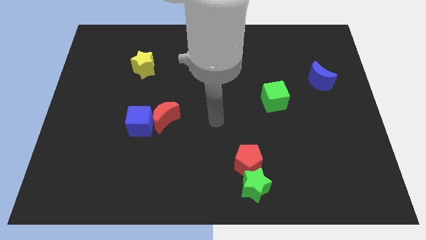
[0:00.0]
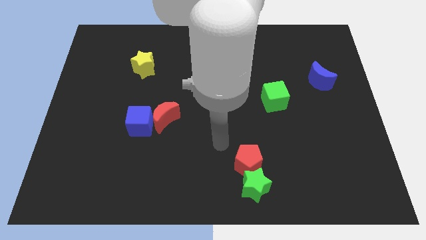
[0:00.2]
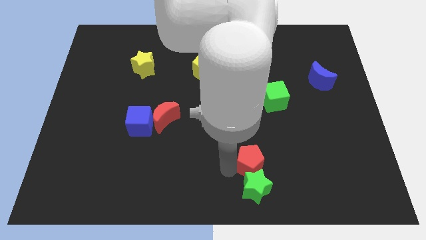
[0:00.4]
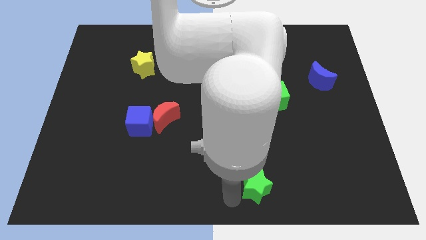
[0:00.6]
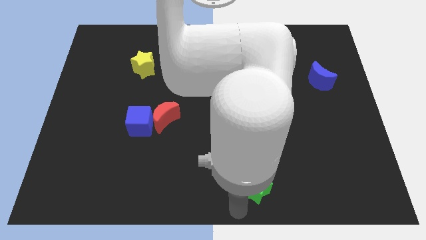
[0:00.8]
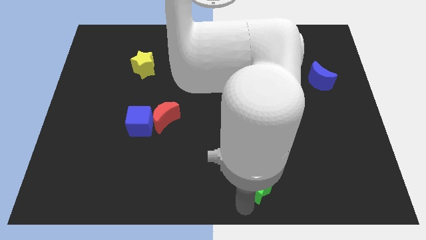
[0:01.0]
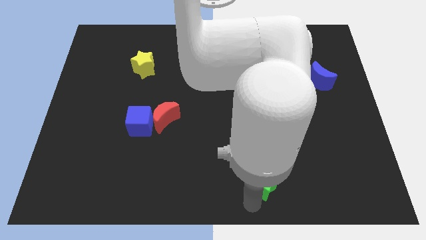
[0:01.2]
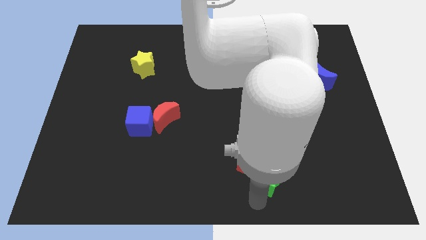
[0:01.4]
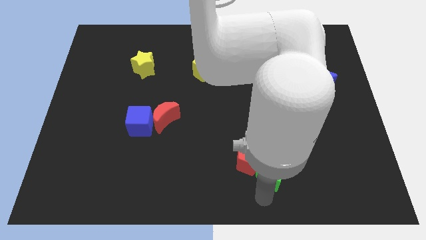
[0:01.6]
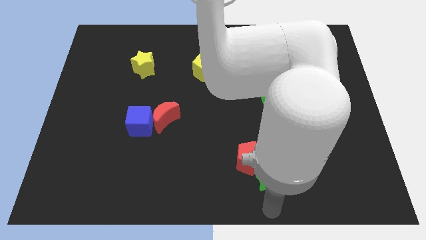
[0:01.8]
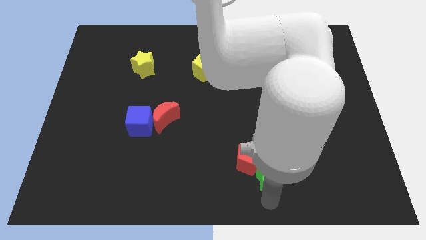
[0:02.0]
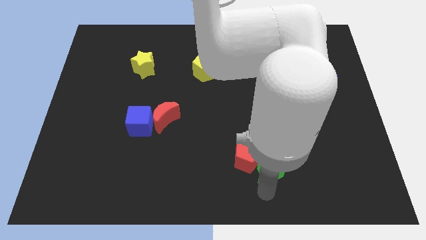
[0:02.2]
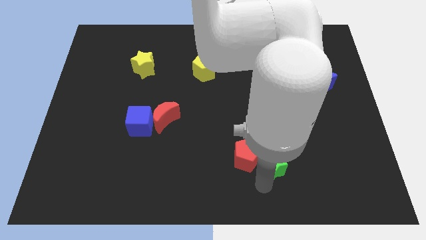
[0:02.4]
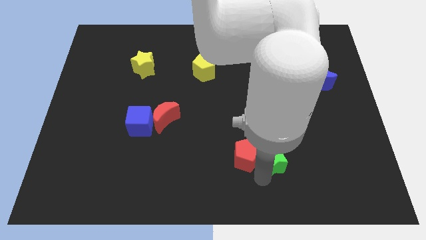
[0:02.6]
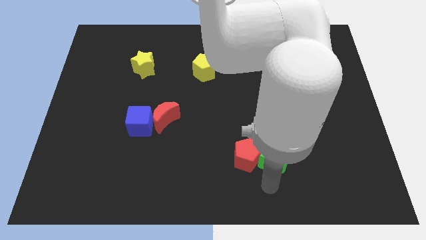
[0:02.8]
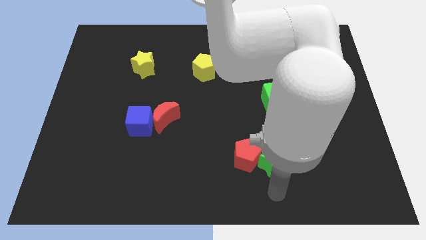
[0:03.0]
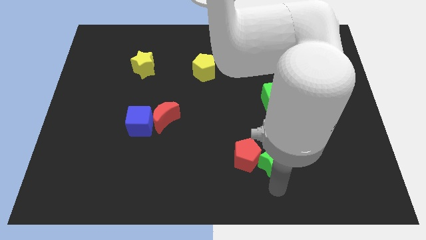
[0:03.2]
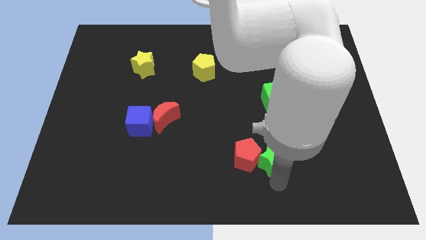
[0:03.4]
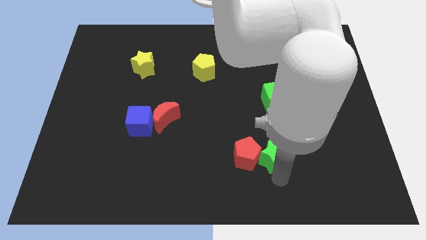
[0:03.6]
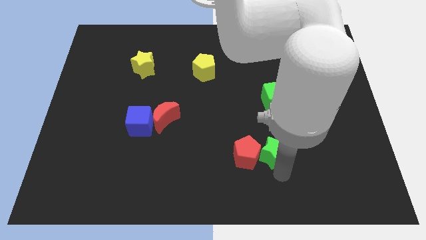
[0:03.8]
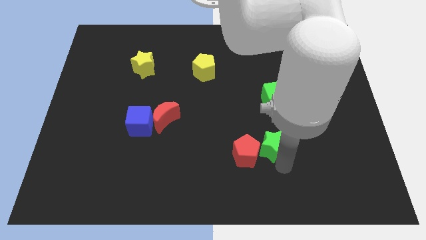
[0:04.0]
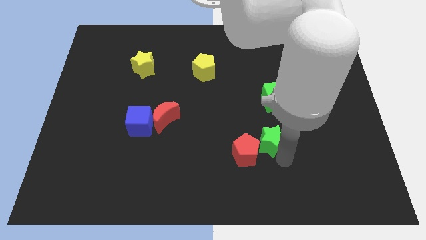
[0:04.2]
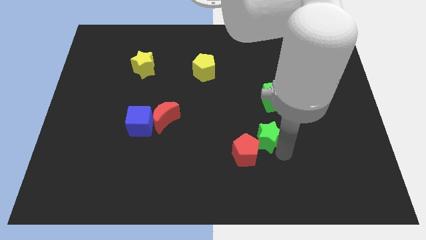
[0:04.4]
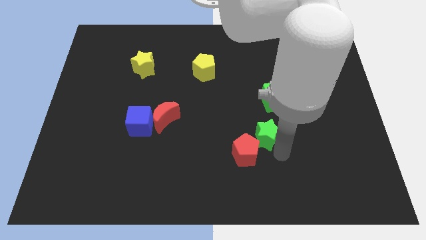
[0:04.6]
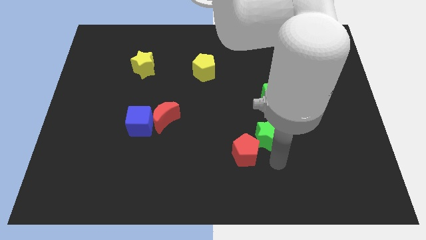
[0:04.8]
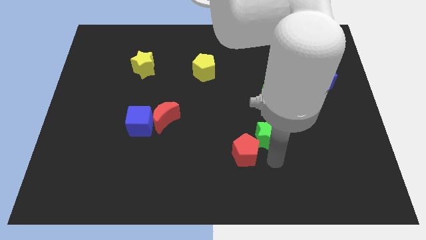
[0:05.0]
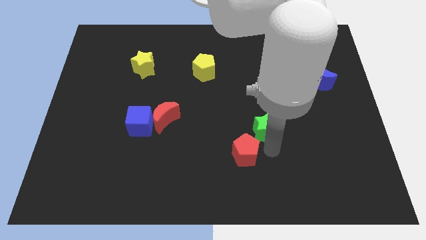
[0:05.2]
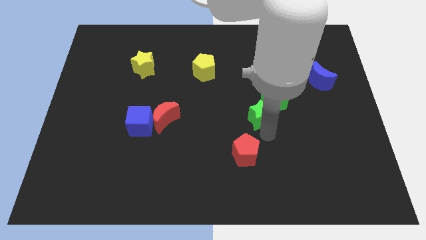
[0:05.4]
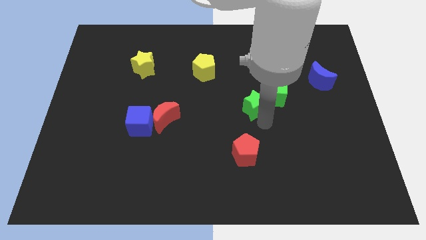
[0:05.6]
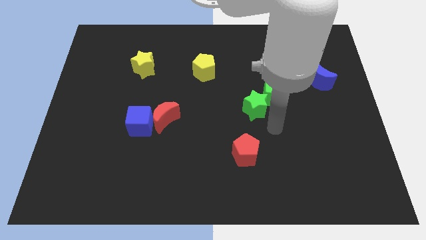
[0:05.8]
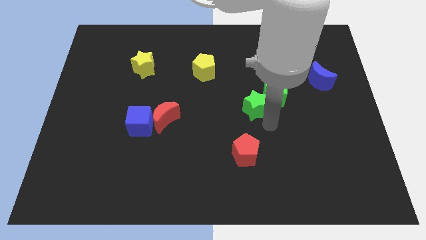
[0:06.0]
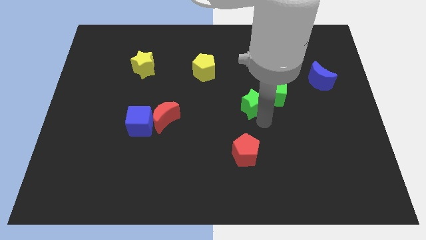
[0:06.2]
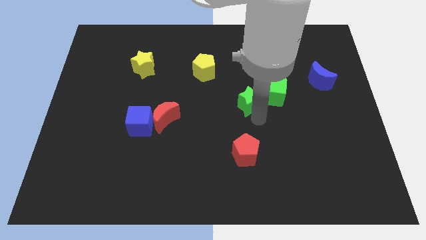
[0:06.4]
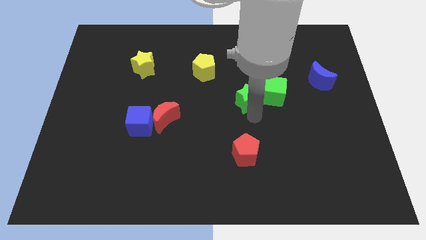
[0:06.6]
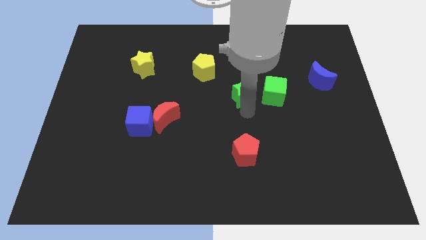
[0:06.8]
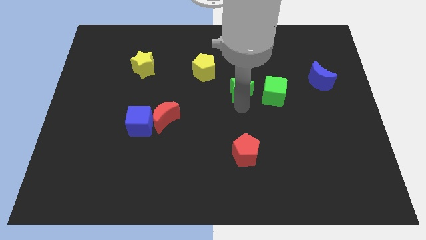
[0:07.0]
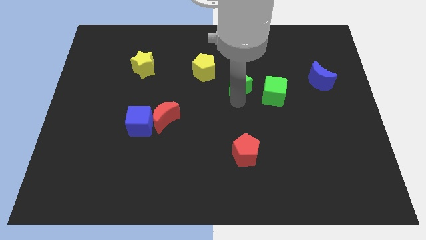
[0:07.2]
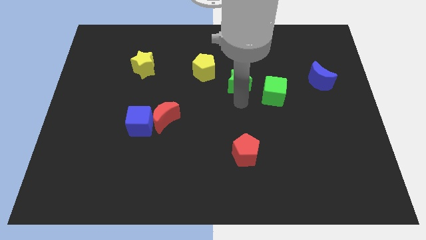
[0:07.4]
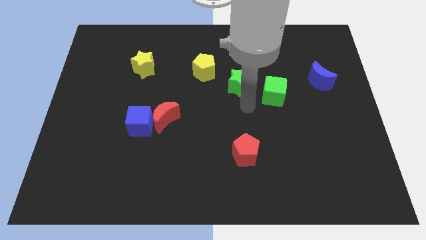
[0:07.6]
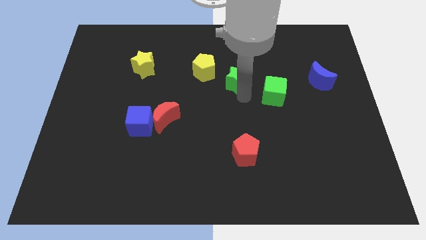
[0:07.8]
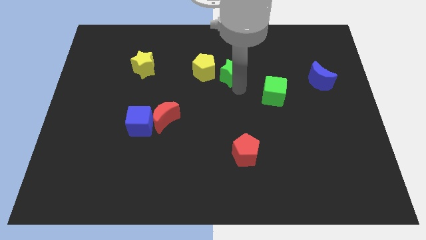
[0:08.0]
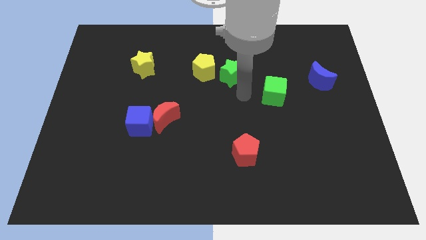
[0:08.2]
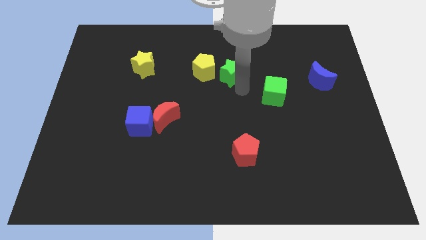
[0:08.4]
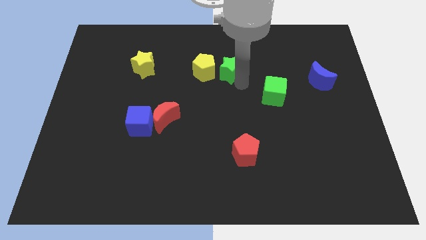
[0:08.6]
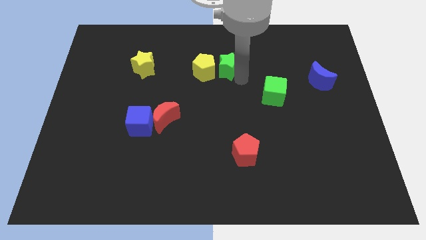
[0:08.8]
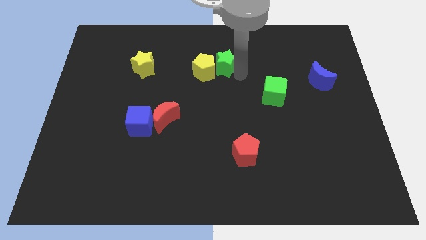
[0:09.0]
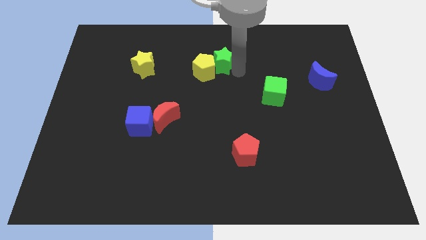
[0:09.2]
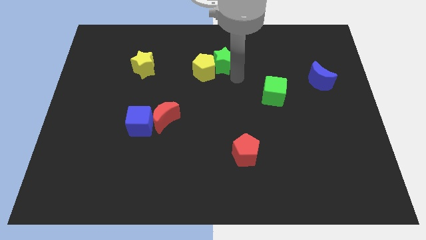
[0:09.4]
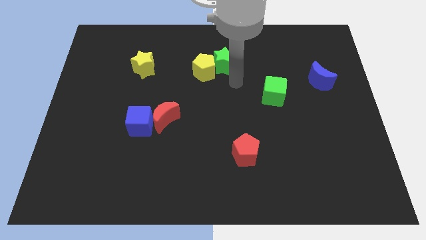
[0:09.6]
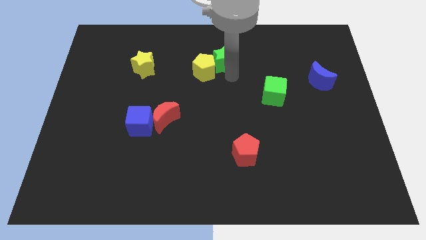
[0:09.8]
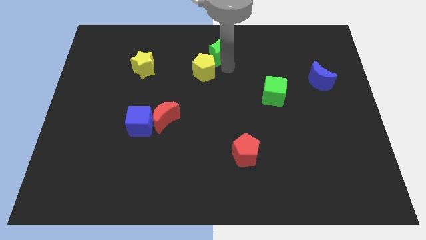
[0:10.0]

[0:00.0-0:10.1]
put the green star to the towards your base

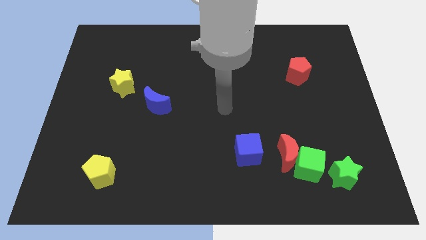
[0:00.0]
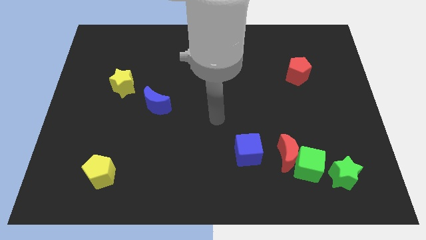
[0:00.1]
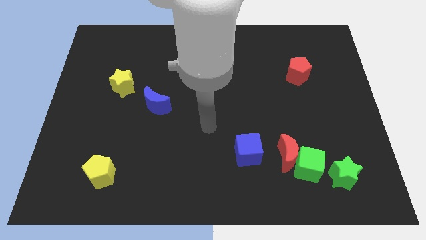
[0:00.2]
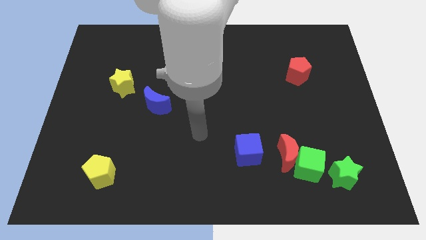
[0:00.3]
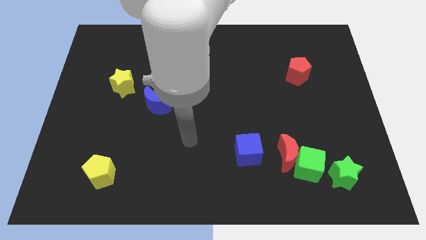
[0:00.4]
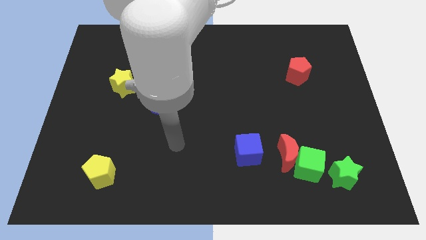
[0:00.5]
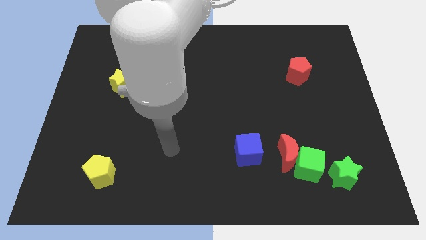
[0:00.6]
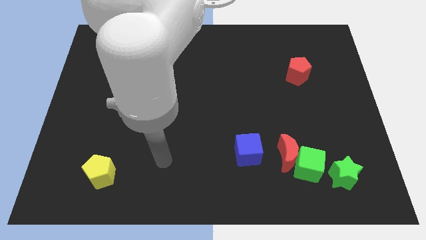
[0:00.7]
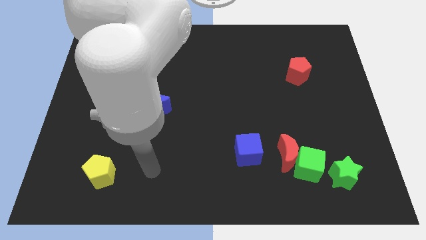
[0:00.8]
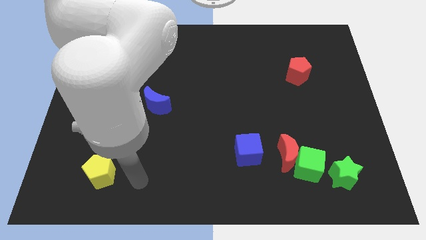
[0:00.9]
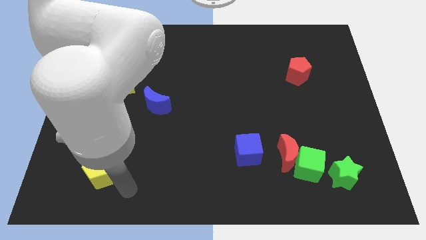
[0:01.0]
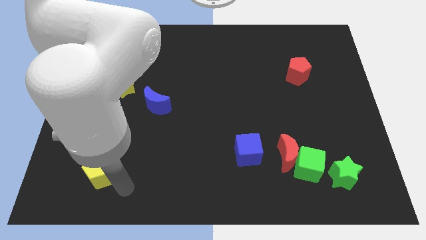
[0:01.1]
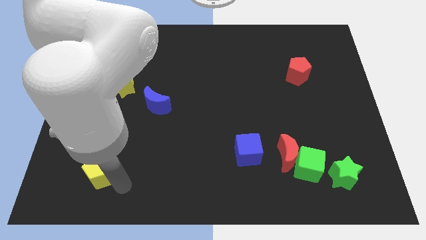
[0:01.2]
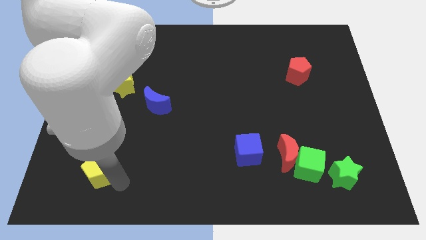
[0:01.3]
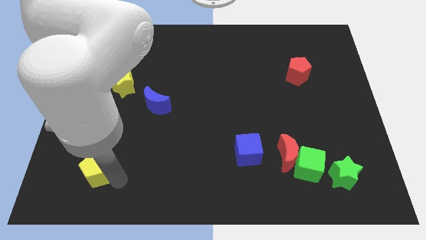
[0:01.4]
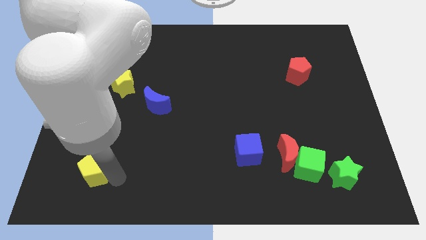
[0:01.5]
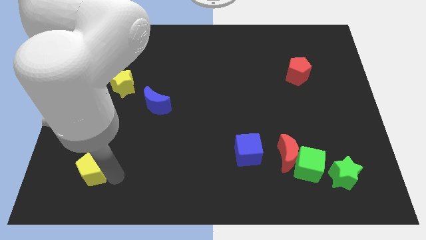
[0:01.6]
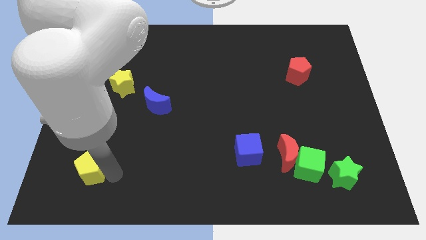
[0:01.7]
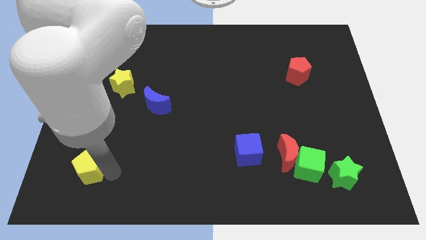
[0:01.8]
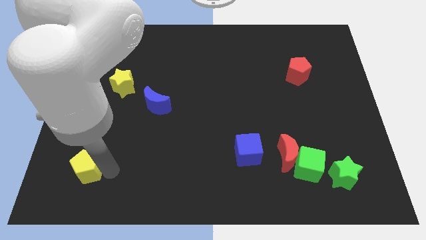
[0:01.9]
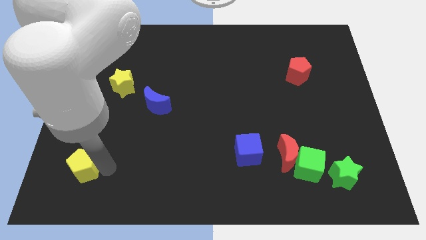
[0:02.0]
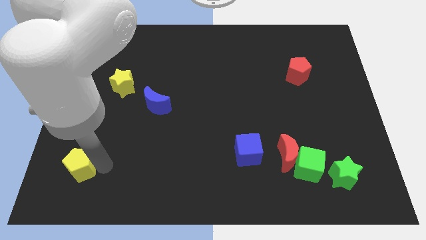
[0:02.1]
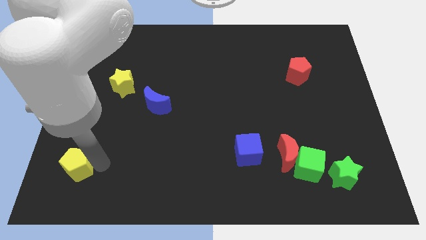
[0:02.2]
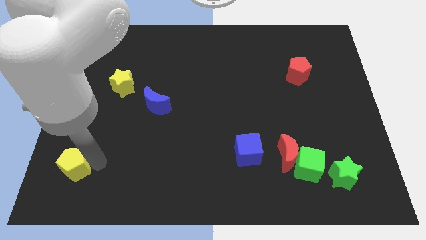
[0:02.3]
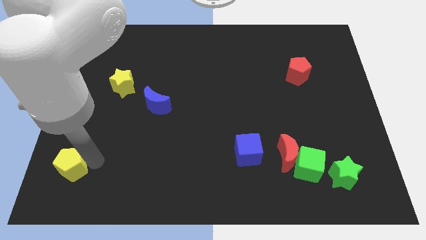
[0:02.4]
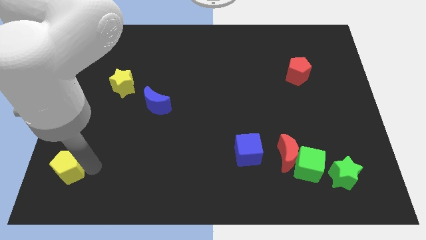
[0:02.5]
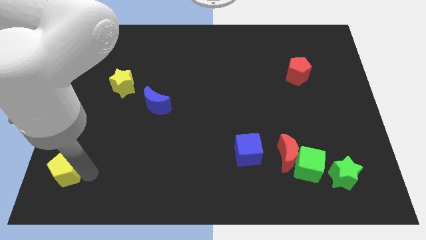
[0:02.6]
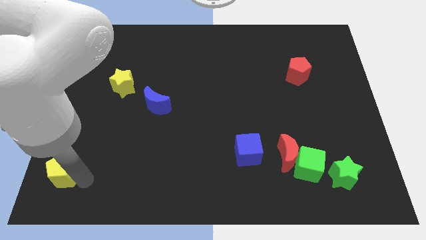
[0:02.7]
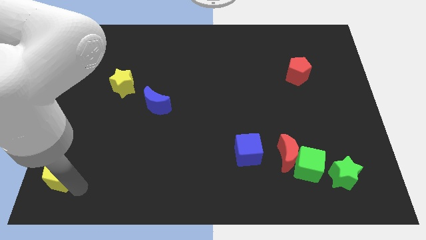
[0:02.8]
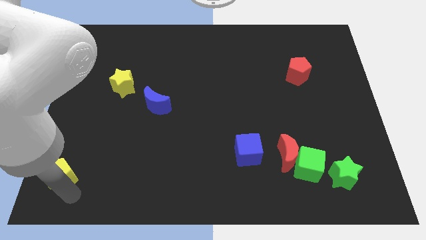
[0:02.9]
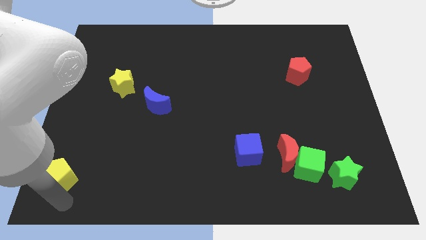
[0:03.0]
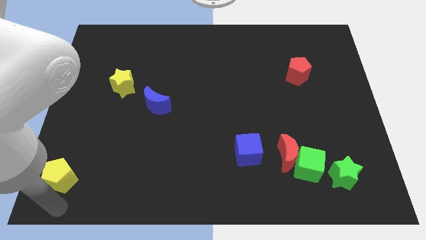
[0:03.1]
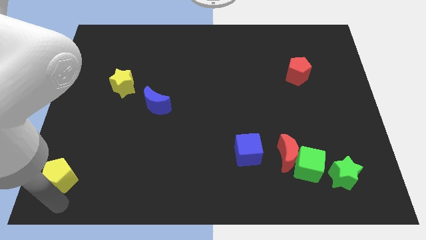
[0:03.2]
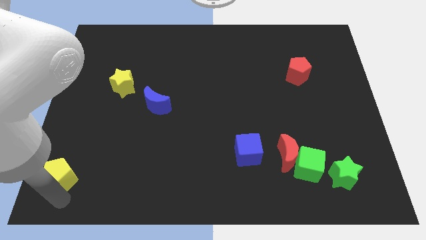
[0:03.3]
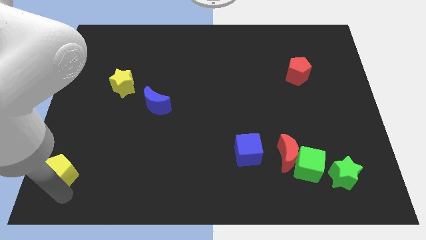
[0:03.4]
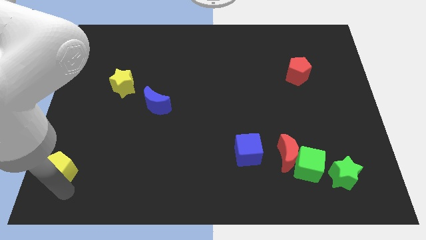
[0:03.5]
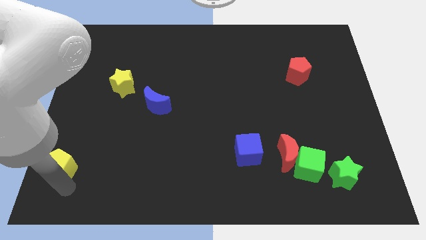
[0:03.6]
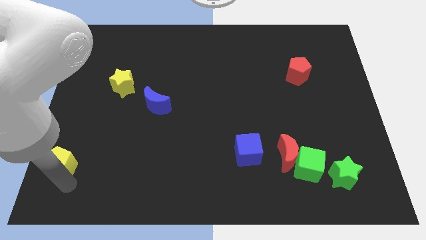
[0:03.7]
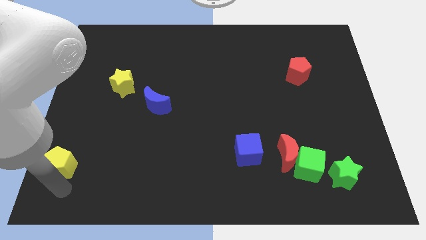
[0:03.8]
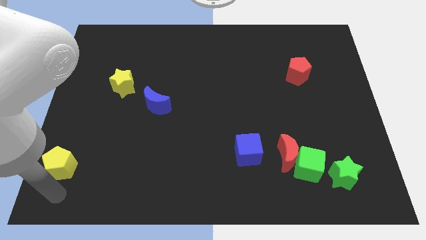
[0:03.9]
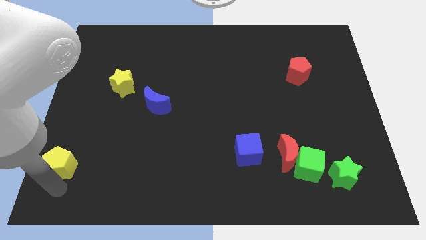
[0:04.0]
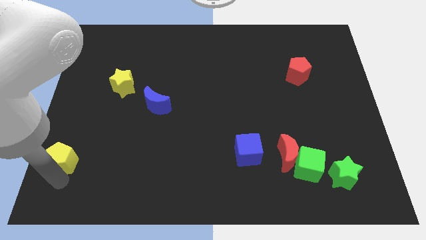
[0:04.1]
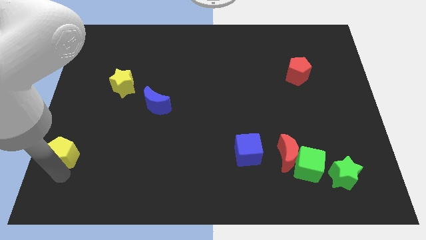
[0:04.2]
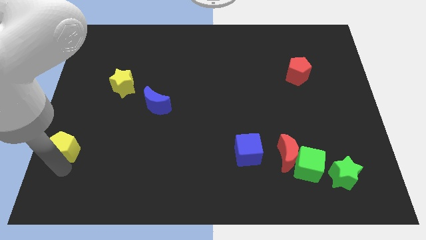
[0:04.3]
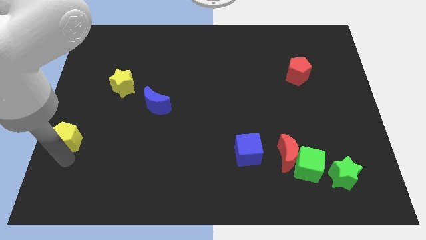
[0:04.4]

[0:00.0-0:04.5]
move the yellow pentagon to the left side of the board
